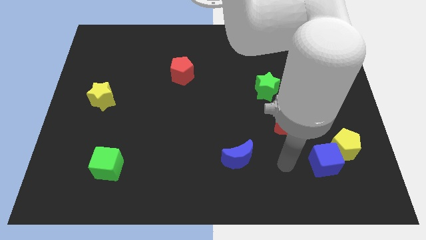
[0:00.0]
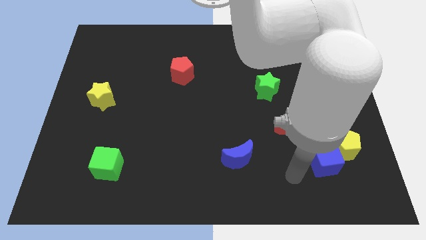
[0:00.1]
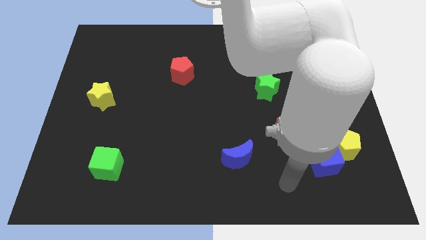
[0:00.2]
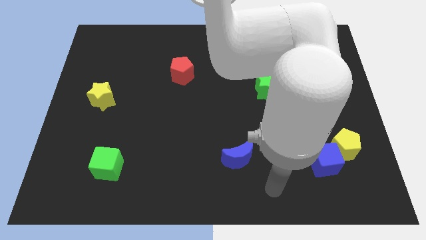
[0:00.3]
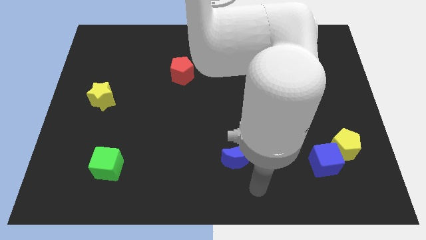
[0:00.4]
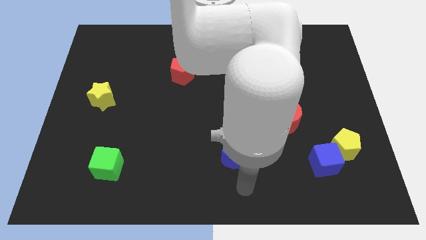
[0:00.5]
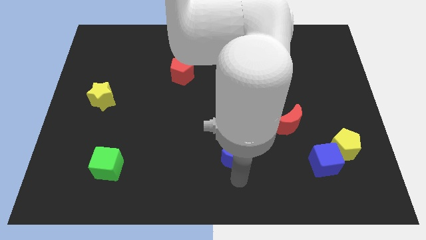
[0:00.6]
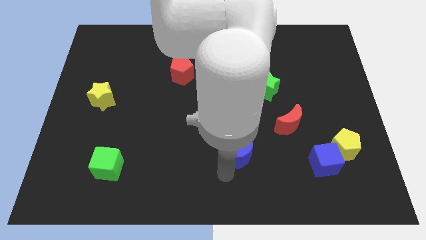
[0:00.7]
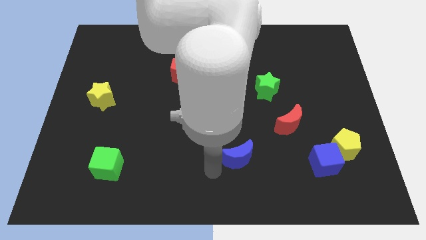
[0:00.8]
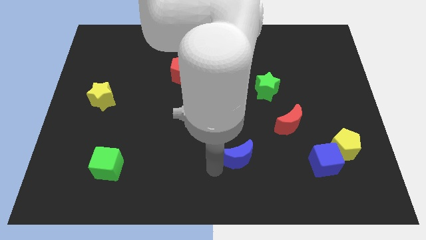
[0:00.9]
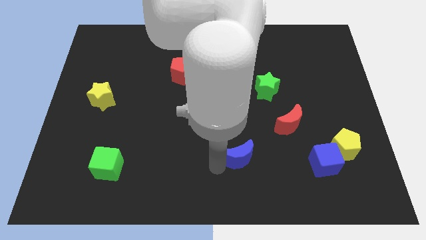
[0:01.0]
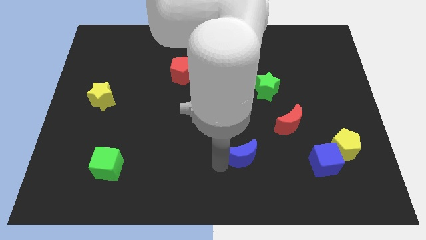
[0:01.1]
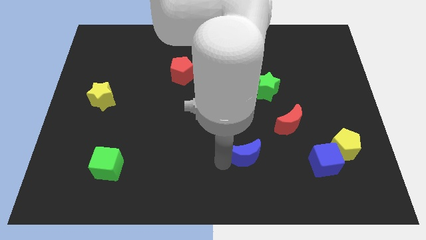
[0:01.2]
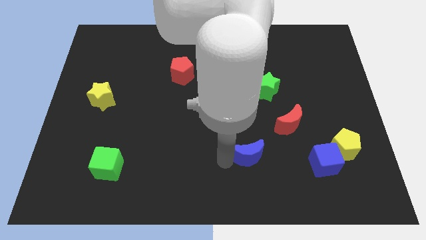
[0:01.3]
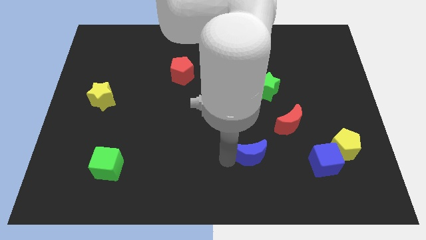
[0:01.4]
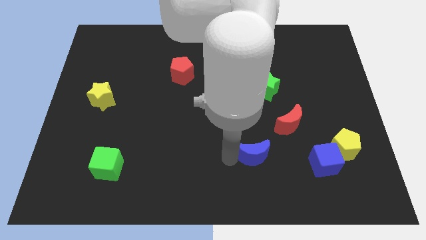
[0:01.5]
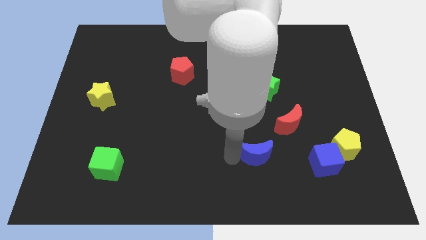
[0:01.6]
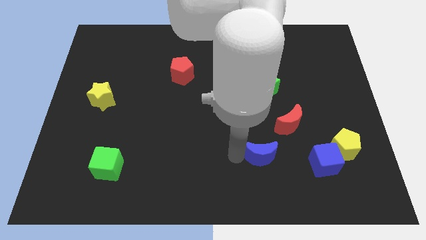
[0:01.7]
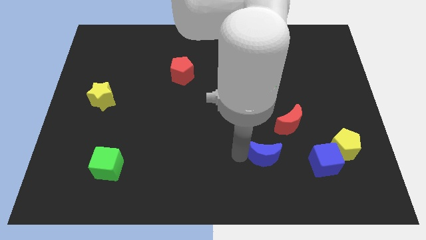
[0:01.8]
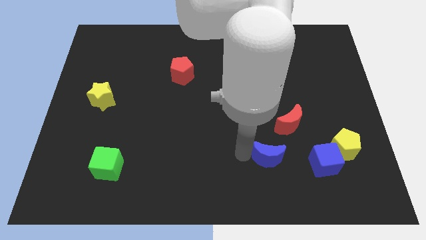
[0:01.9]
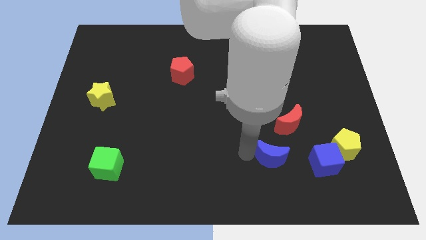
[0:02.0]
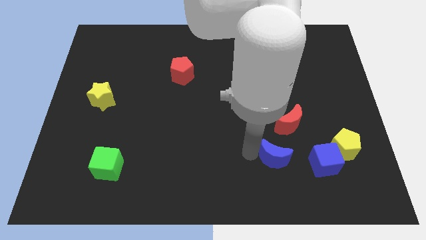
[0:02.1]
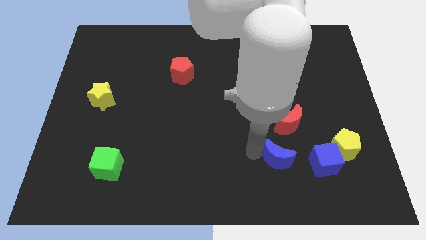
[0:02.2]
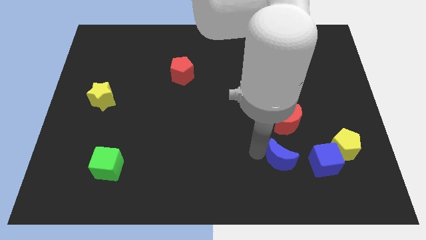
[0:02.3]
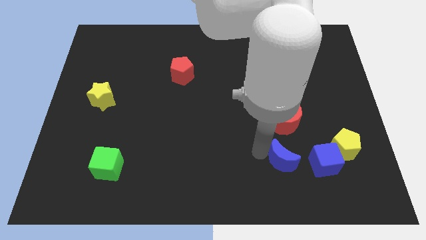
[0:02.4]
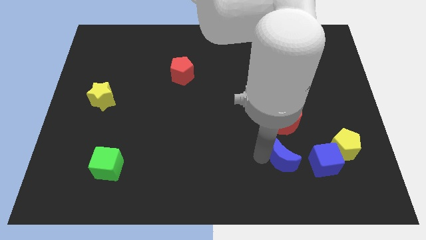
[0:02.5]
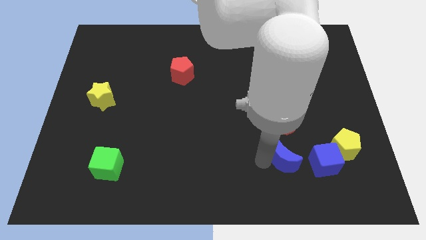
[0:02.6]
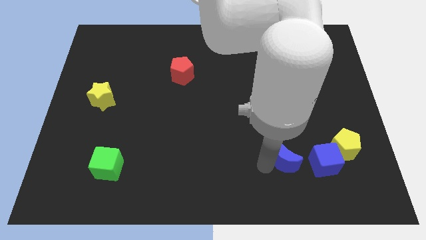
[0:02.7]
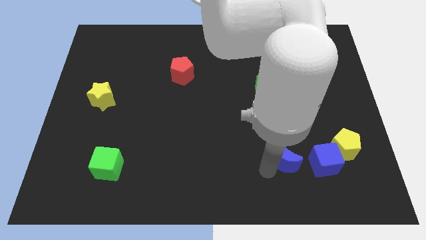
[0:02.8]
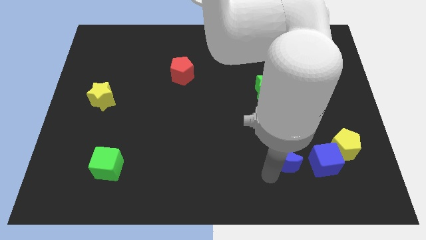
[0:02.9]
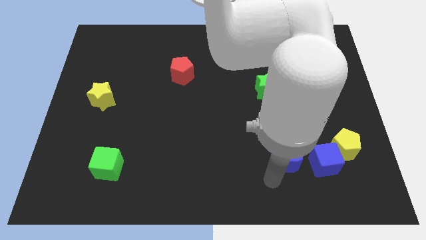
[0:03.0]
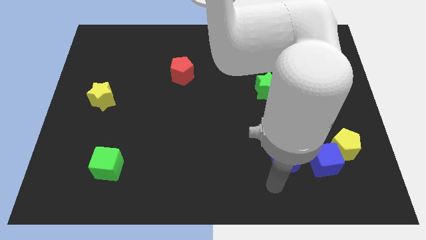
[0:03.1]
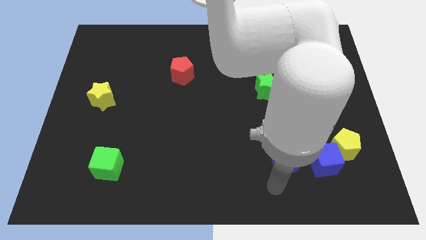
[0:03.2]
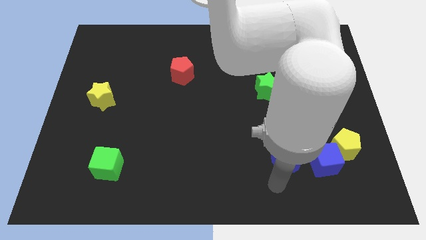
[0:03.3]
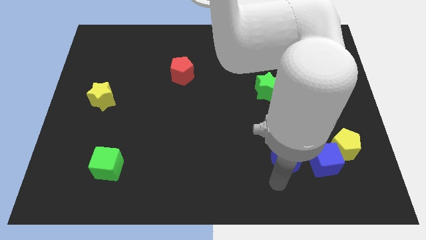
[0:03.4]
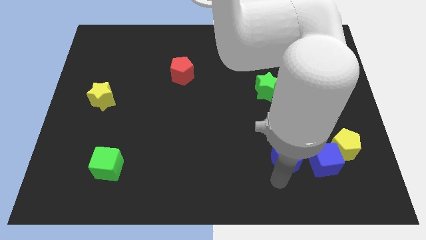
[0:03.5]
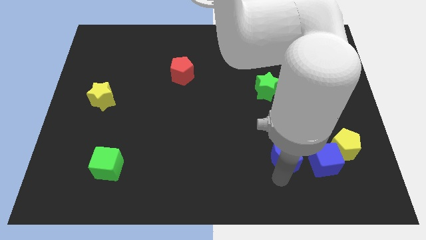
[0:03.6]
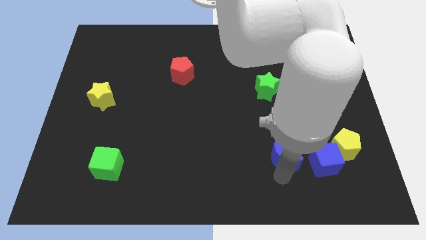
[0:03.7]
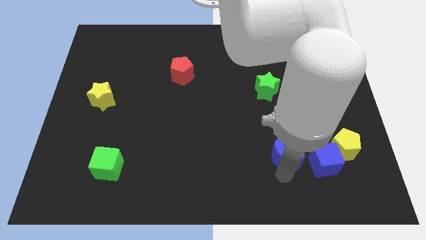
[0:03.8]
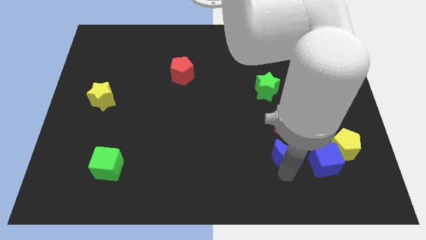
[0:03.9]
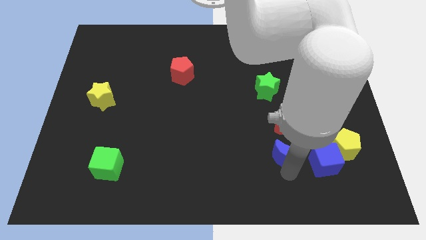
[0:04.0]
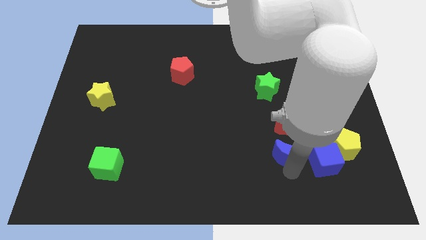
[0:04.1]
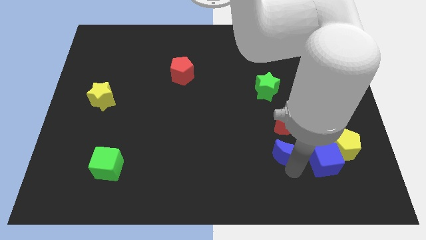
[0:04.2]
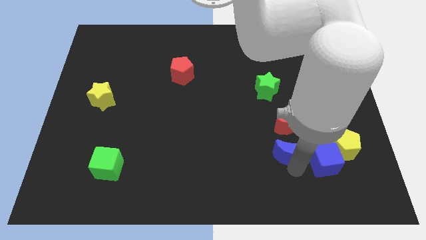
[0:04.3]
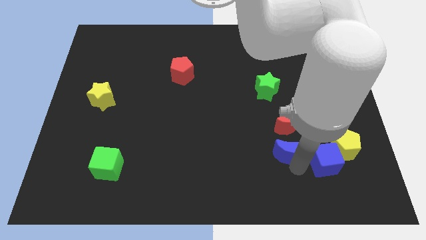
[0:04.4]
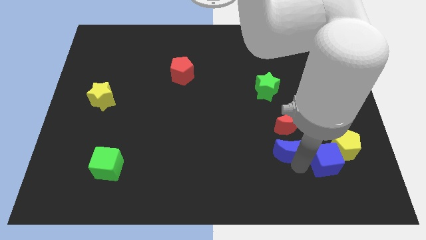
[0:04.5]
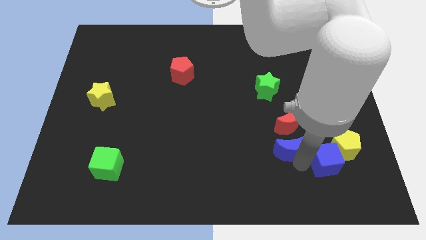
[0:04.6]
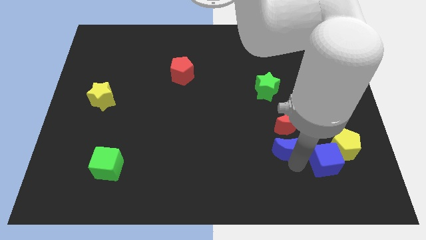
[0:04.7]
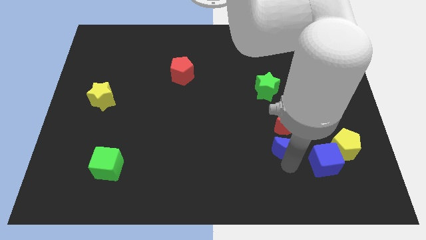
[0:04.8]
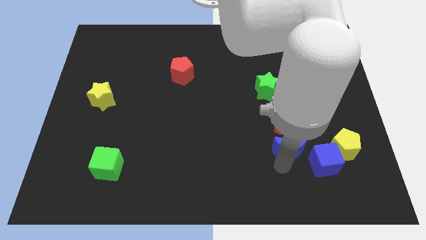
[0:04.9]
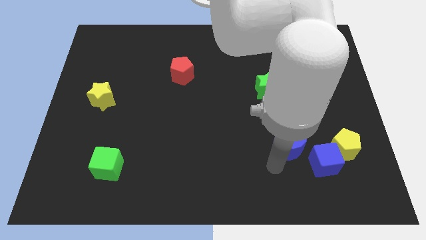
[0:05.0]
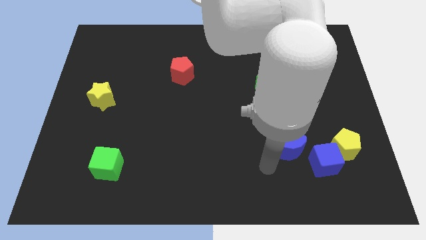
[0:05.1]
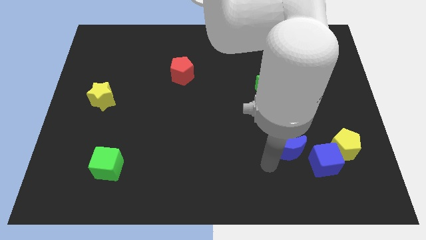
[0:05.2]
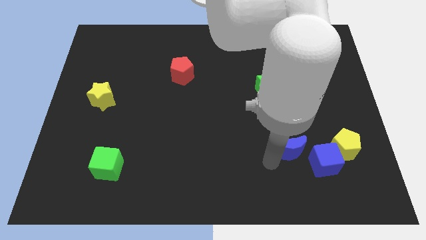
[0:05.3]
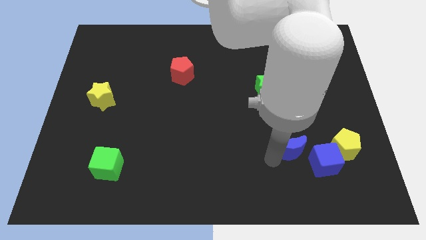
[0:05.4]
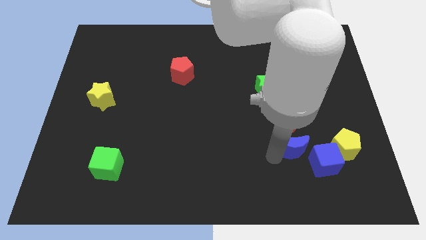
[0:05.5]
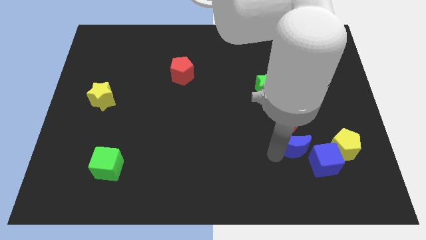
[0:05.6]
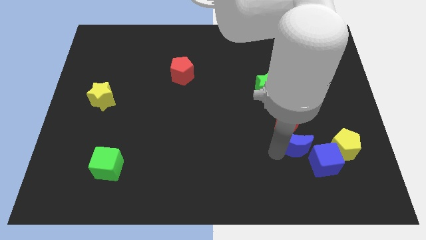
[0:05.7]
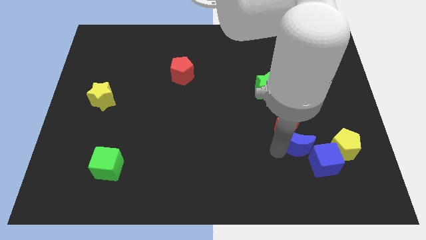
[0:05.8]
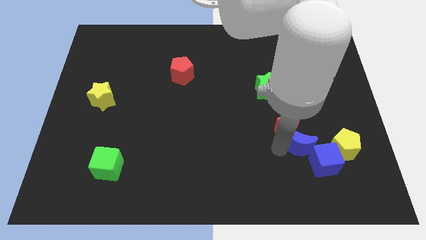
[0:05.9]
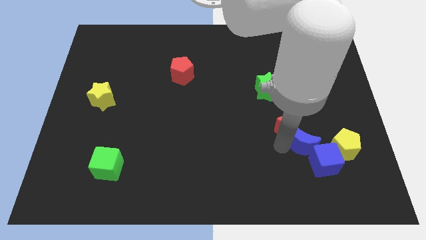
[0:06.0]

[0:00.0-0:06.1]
push the blue moon above the blue cube

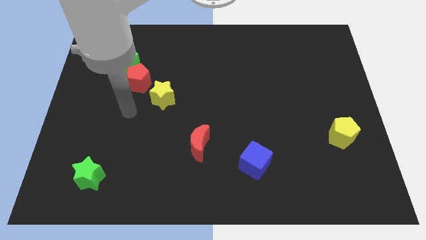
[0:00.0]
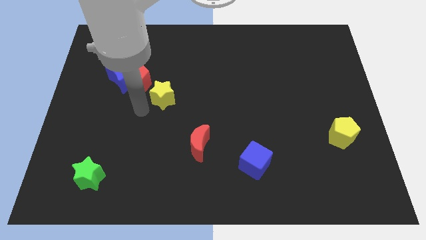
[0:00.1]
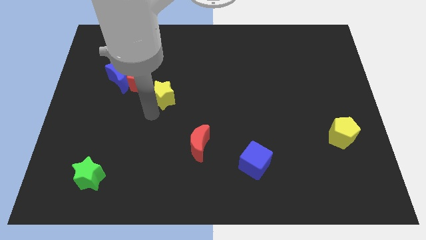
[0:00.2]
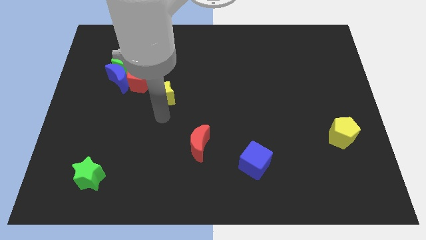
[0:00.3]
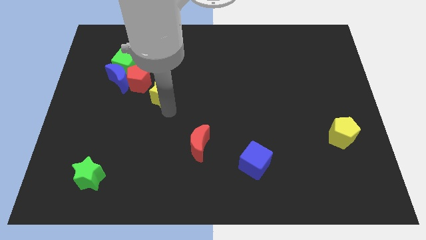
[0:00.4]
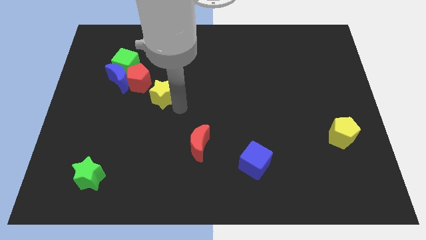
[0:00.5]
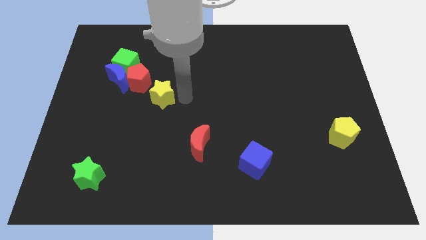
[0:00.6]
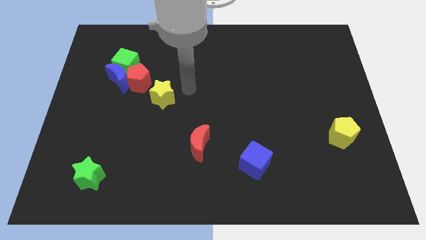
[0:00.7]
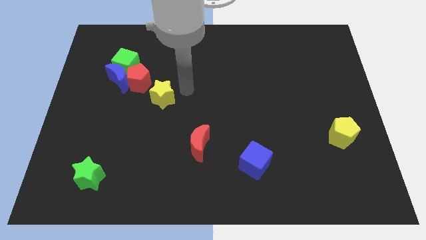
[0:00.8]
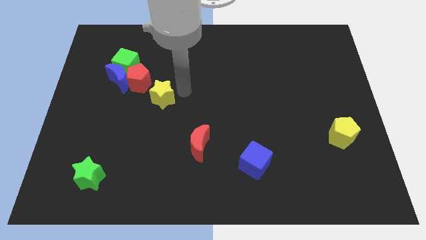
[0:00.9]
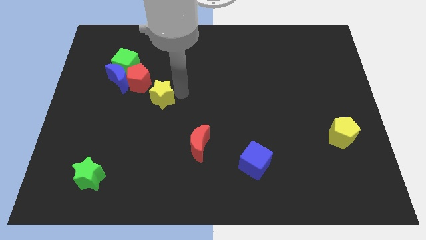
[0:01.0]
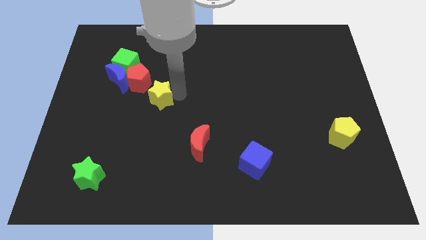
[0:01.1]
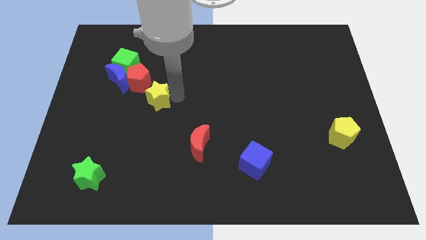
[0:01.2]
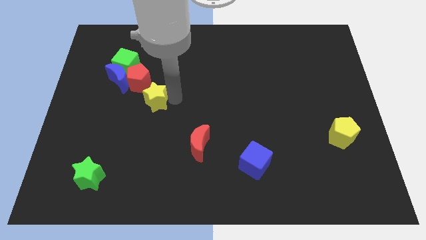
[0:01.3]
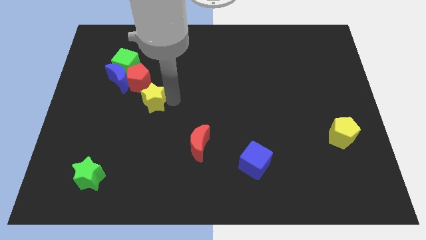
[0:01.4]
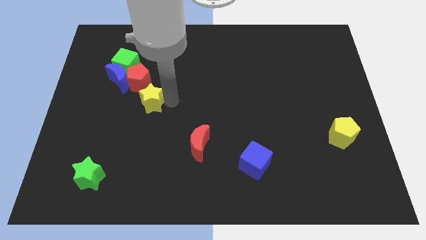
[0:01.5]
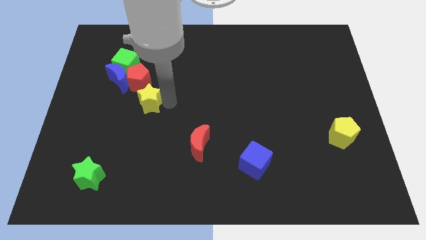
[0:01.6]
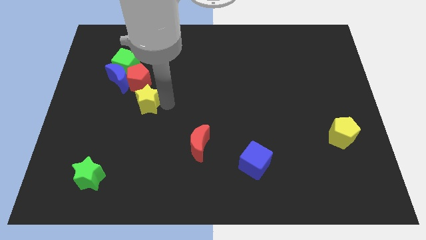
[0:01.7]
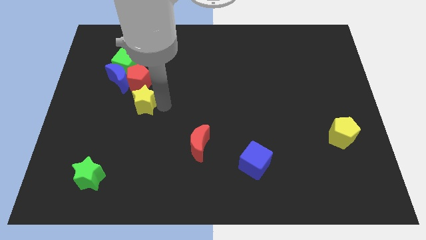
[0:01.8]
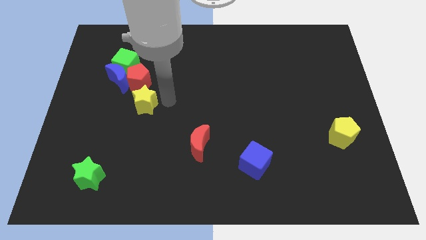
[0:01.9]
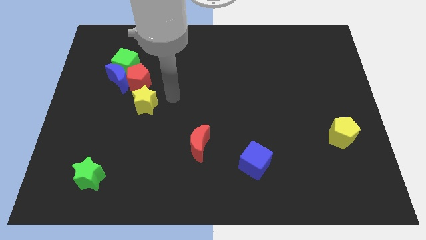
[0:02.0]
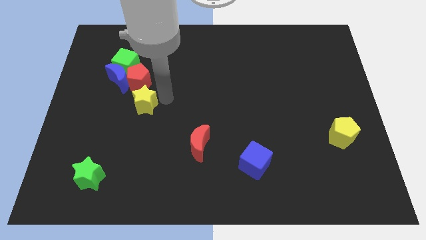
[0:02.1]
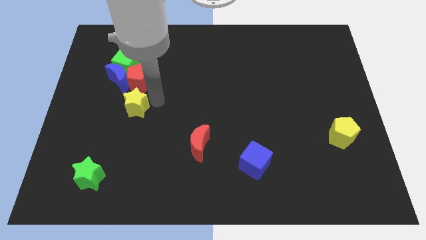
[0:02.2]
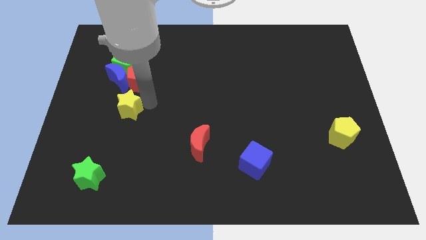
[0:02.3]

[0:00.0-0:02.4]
move the yellow star to the bottom side of the blue moon
